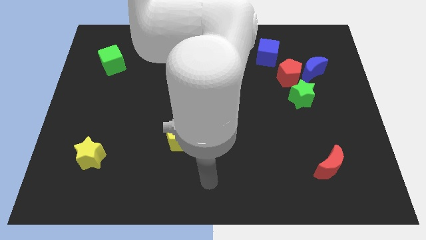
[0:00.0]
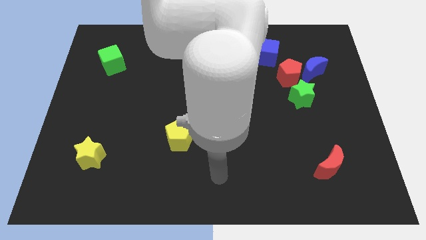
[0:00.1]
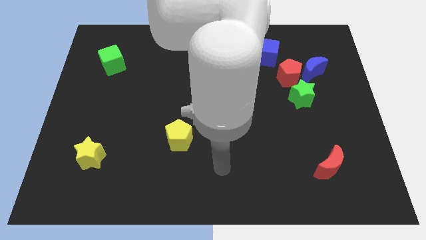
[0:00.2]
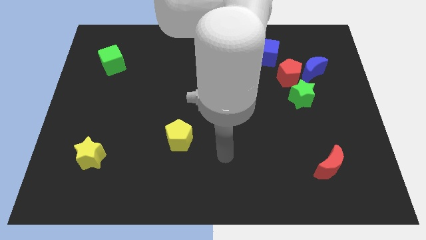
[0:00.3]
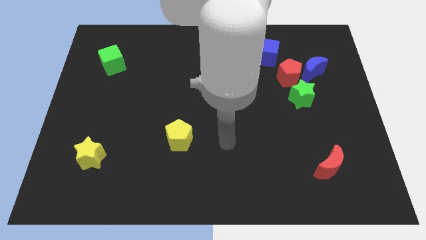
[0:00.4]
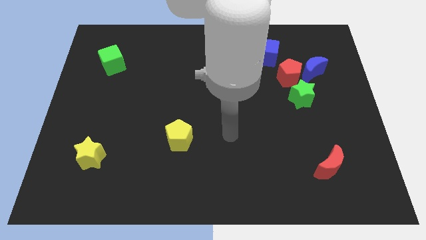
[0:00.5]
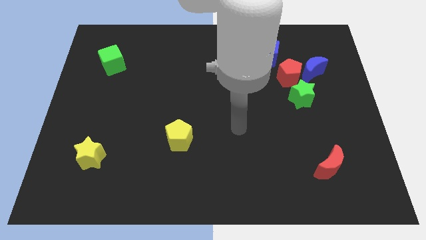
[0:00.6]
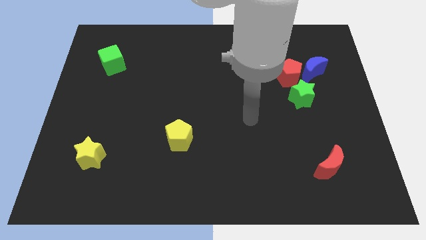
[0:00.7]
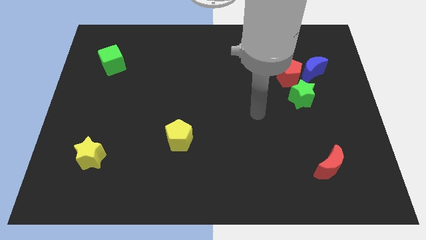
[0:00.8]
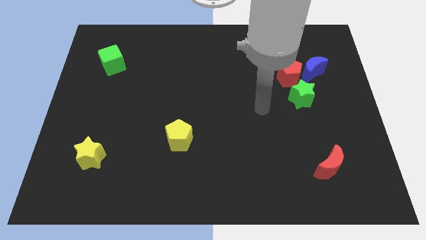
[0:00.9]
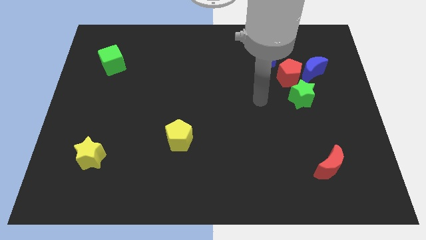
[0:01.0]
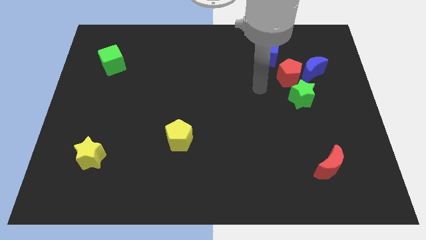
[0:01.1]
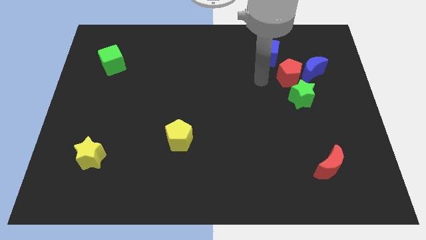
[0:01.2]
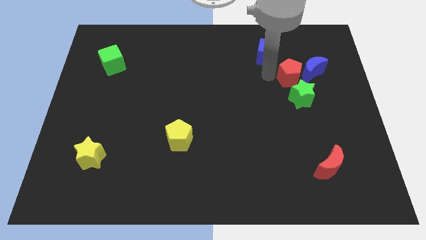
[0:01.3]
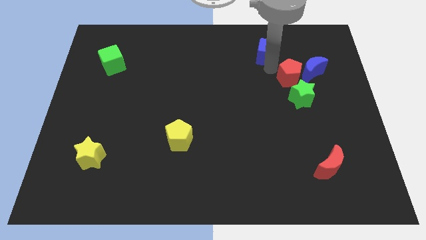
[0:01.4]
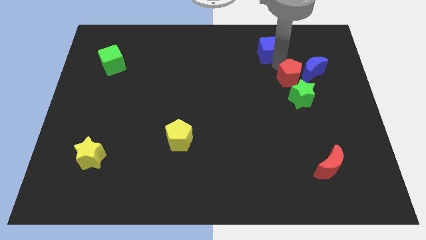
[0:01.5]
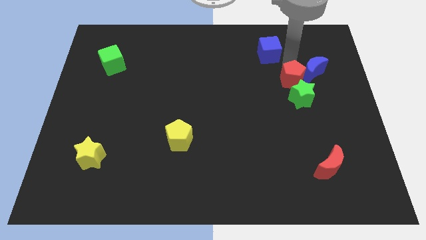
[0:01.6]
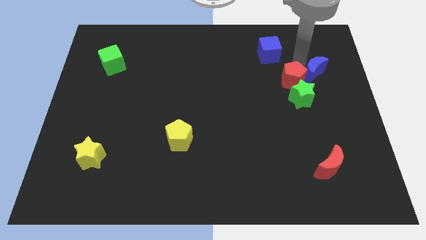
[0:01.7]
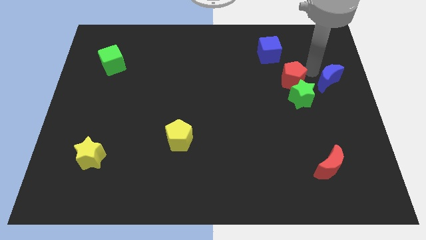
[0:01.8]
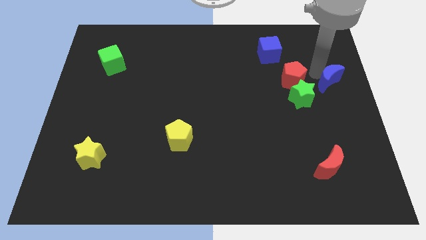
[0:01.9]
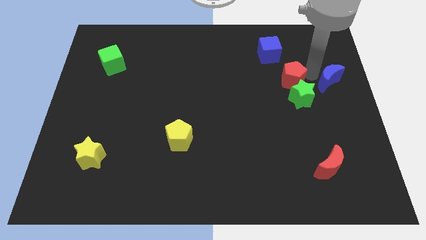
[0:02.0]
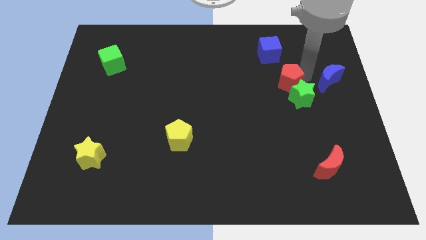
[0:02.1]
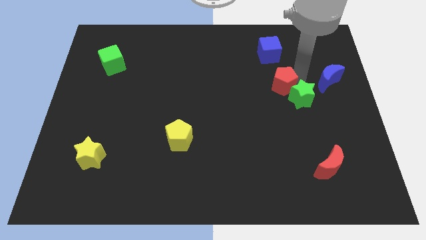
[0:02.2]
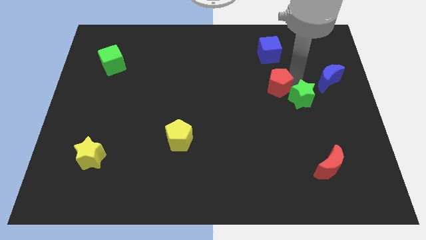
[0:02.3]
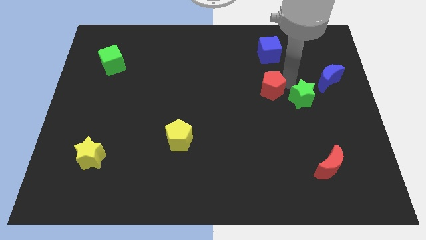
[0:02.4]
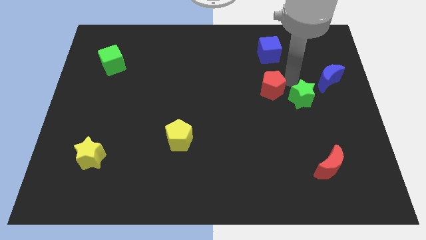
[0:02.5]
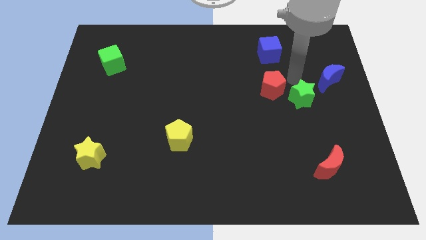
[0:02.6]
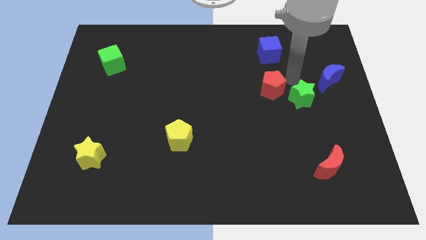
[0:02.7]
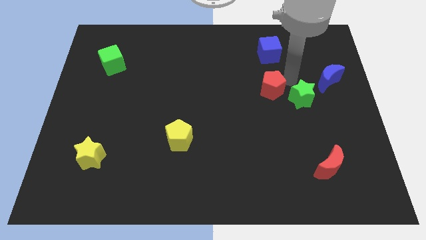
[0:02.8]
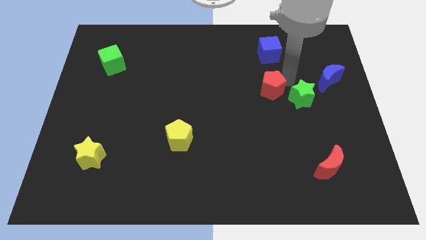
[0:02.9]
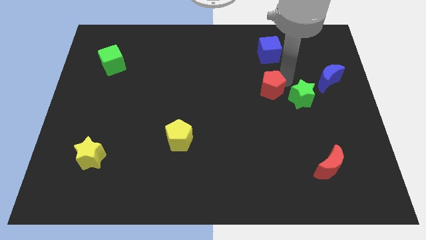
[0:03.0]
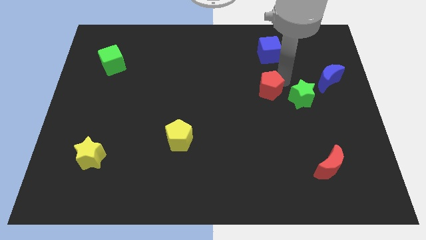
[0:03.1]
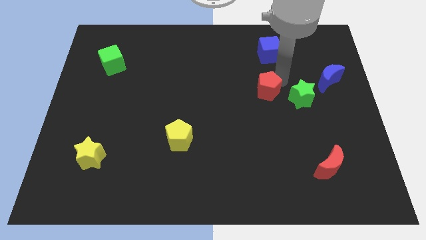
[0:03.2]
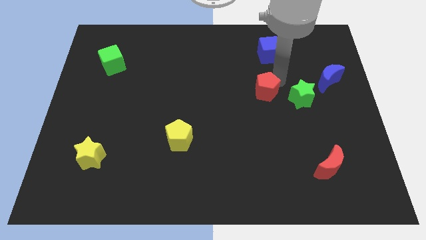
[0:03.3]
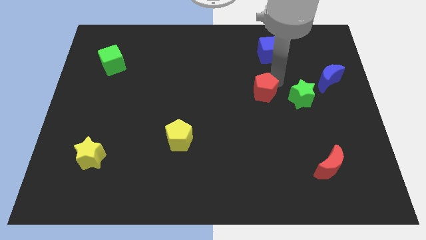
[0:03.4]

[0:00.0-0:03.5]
pull the red pentagon apart from the group

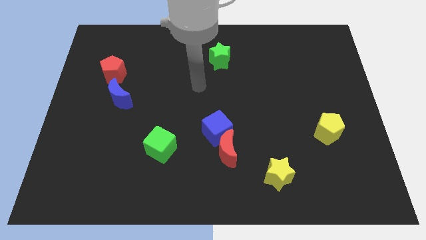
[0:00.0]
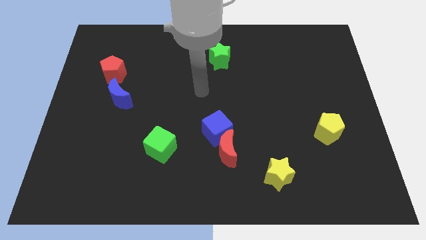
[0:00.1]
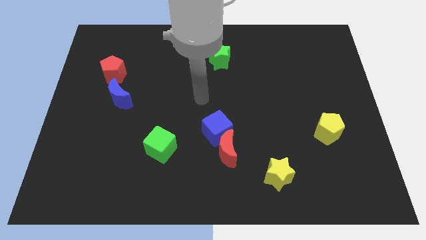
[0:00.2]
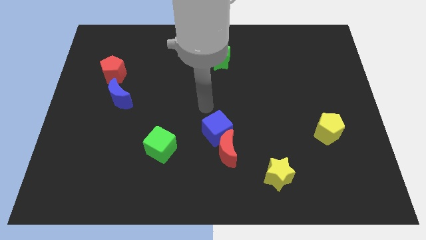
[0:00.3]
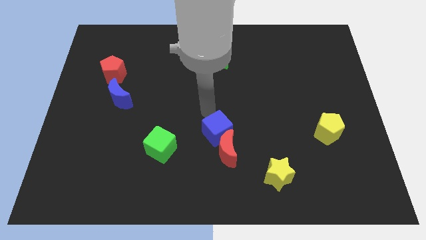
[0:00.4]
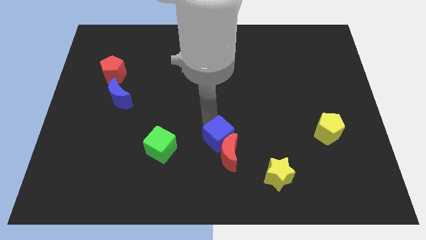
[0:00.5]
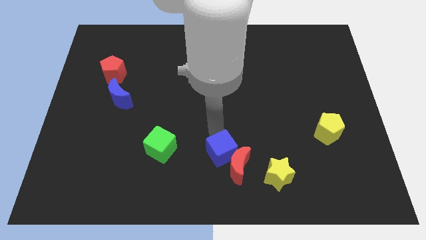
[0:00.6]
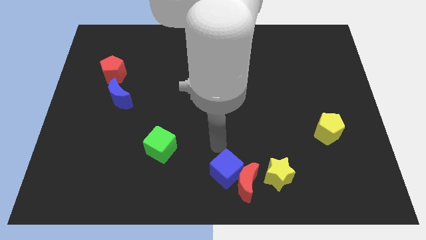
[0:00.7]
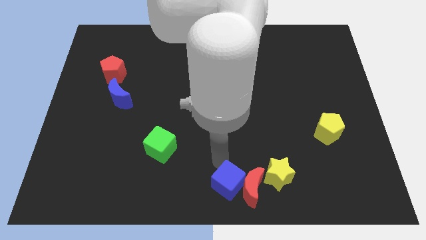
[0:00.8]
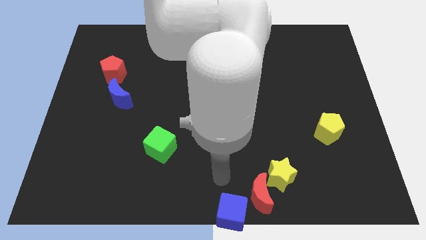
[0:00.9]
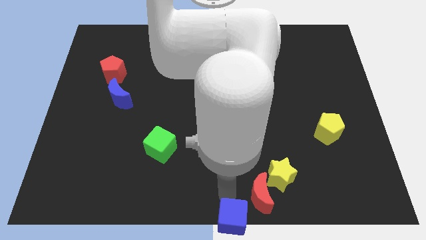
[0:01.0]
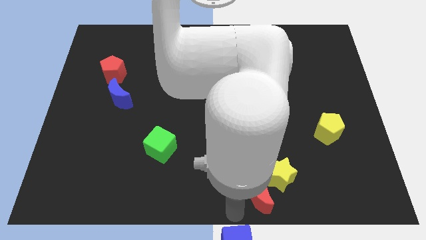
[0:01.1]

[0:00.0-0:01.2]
pull the red moon apart from the blue cube

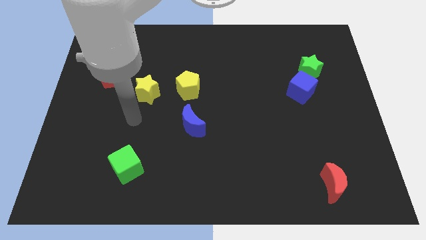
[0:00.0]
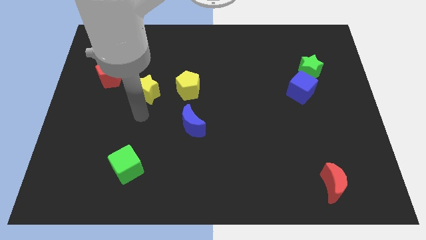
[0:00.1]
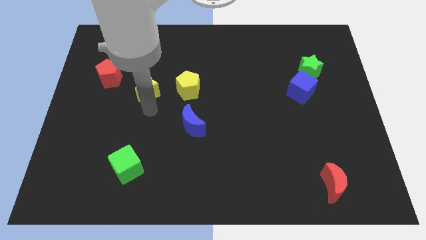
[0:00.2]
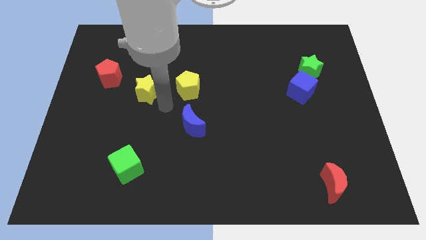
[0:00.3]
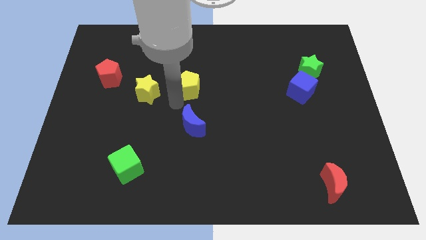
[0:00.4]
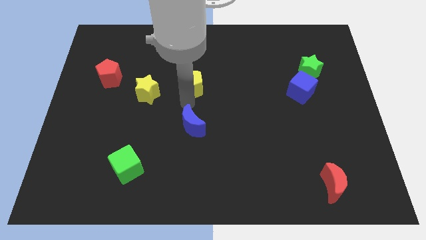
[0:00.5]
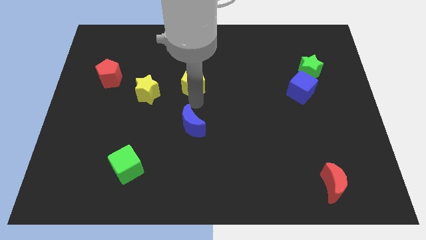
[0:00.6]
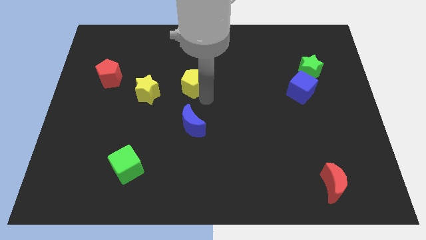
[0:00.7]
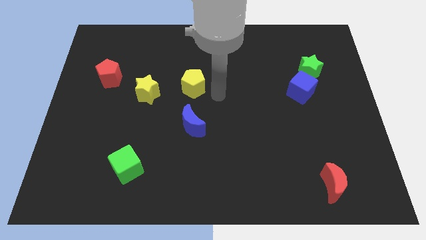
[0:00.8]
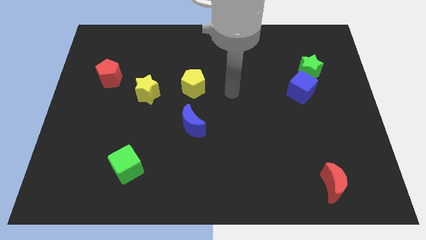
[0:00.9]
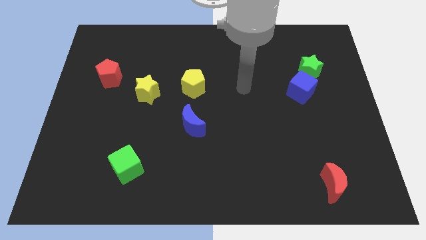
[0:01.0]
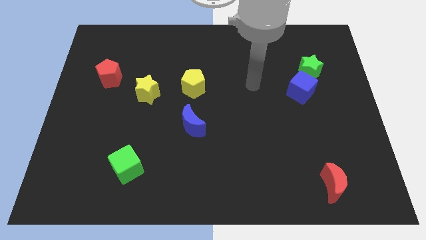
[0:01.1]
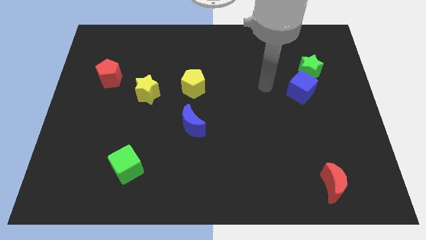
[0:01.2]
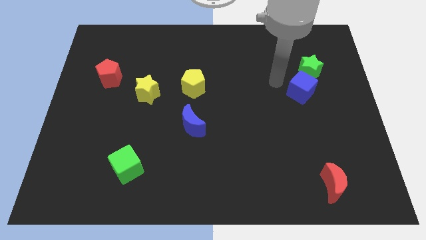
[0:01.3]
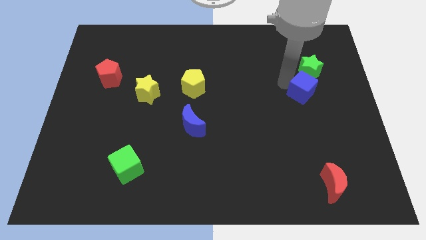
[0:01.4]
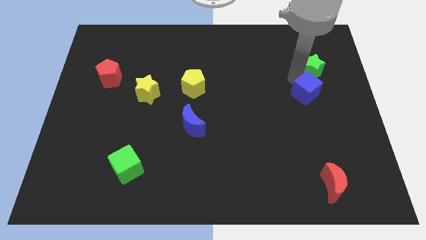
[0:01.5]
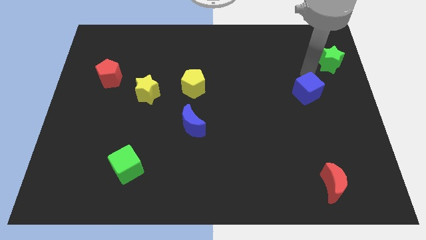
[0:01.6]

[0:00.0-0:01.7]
separate the blue cube from the green star

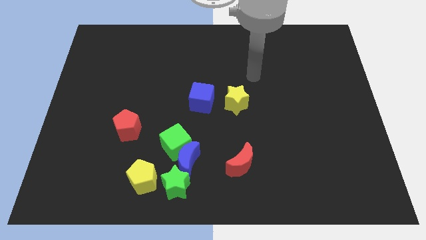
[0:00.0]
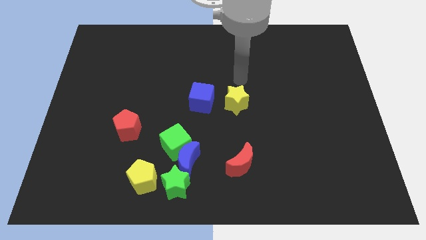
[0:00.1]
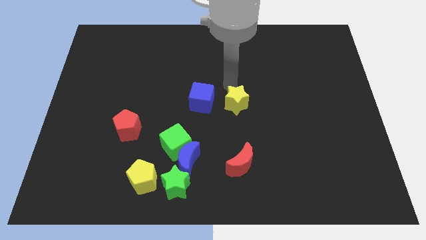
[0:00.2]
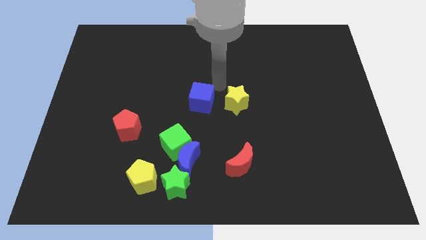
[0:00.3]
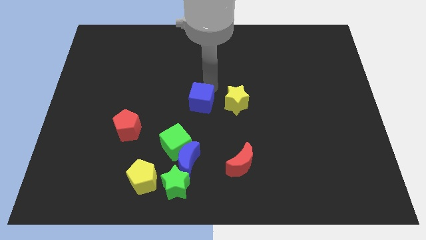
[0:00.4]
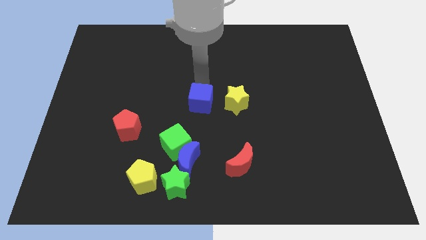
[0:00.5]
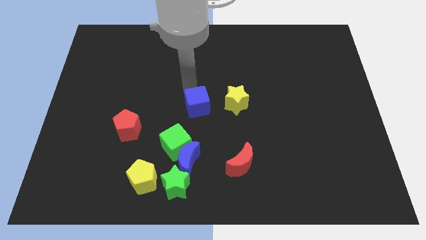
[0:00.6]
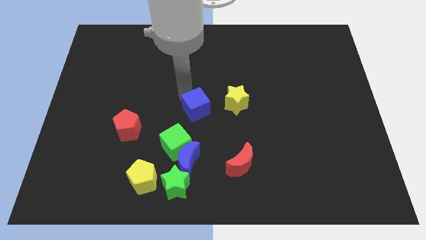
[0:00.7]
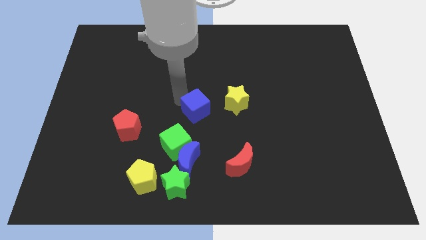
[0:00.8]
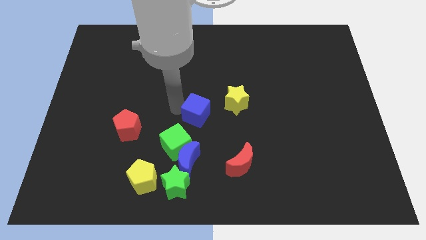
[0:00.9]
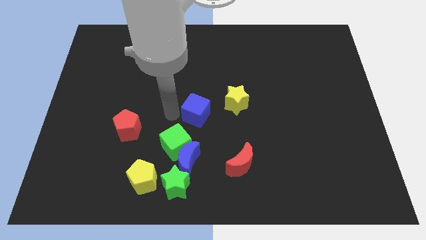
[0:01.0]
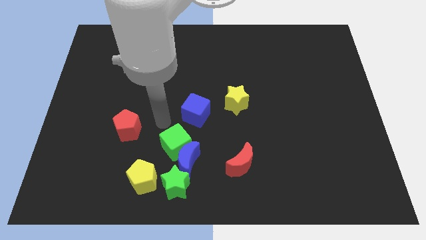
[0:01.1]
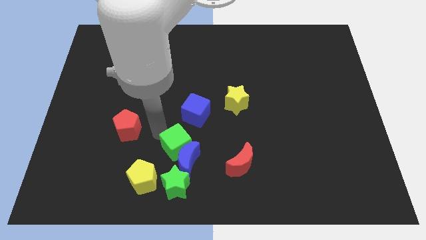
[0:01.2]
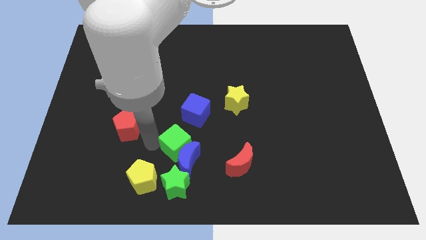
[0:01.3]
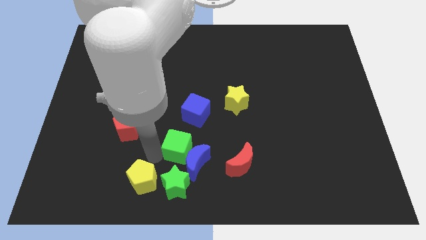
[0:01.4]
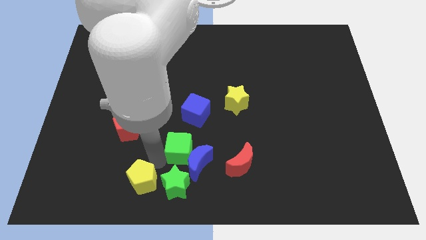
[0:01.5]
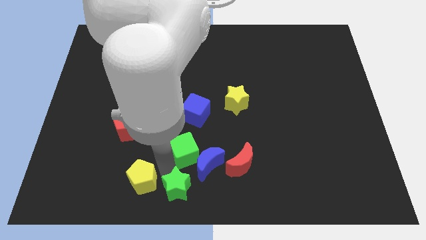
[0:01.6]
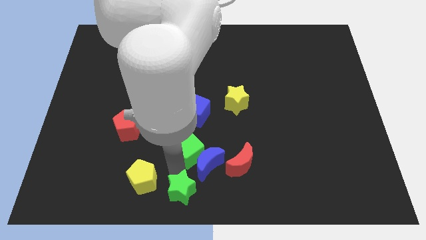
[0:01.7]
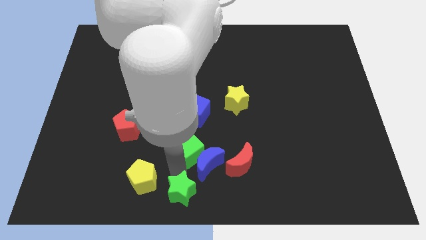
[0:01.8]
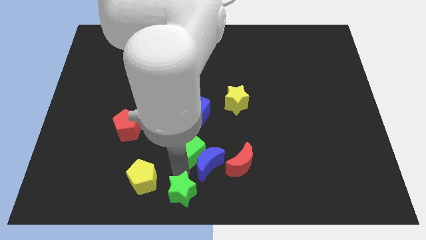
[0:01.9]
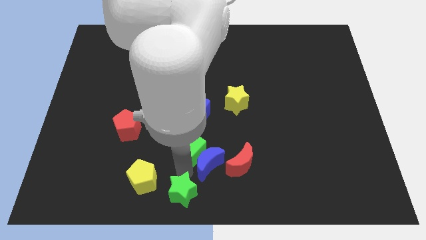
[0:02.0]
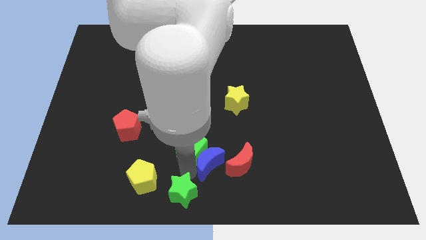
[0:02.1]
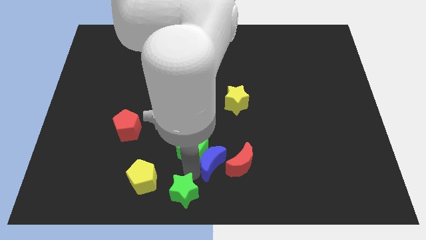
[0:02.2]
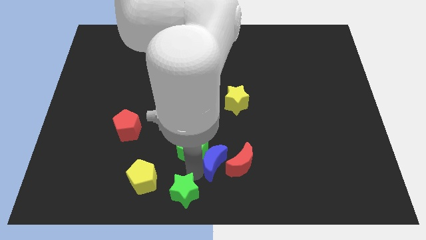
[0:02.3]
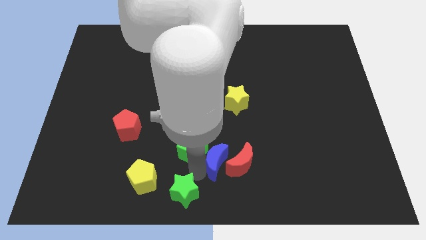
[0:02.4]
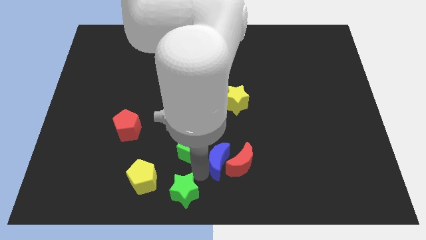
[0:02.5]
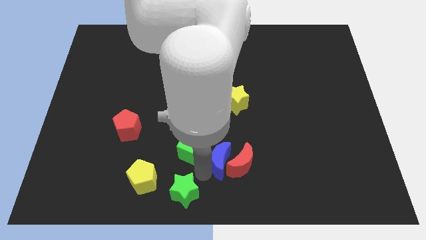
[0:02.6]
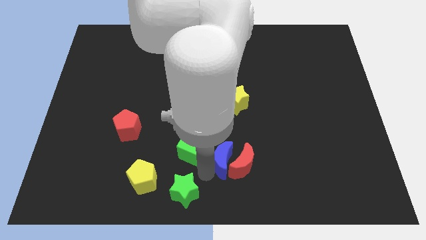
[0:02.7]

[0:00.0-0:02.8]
move the blue moon away from the group of blocks
